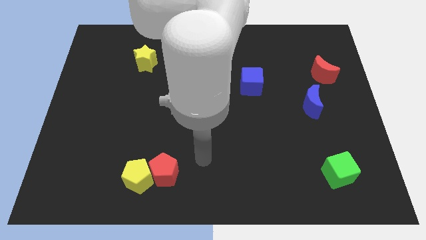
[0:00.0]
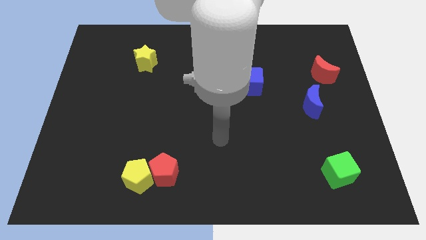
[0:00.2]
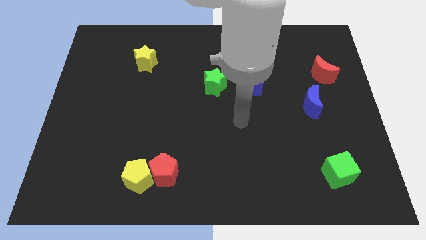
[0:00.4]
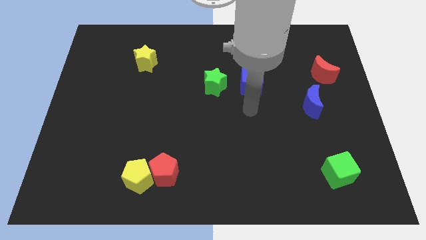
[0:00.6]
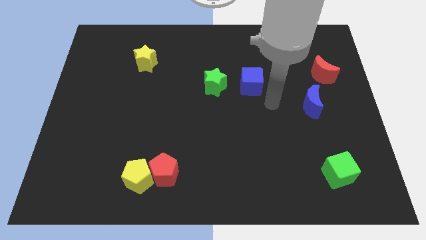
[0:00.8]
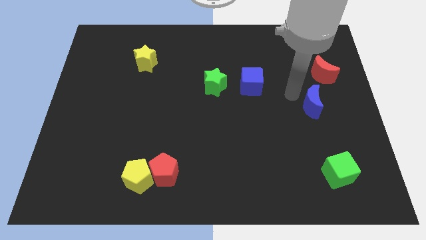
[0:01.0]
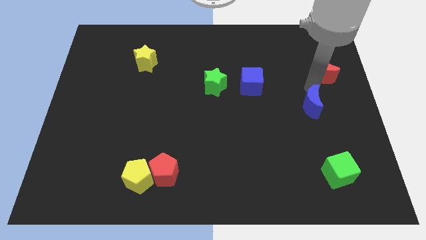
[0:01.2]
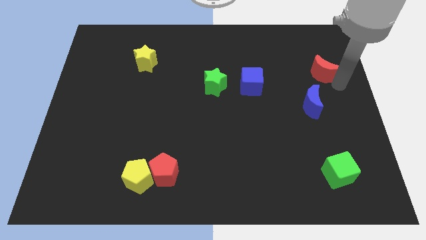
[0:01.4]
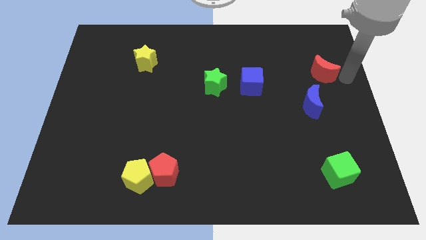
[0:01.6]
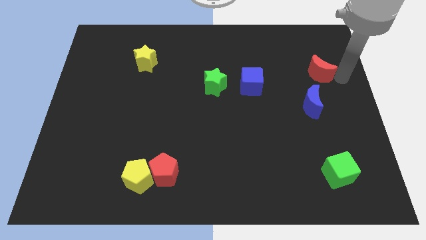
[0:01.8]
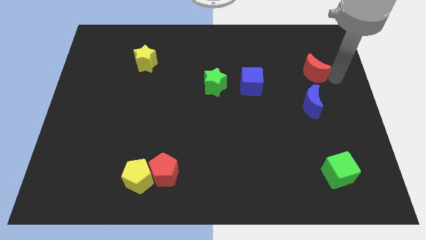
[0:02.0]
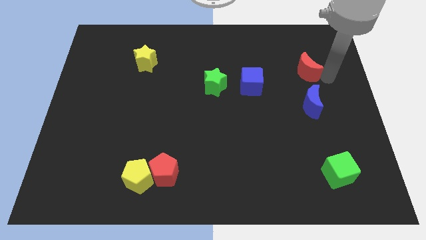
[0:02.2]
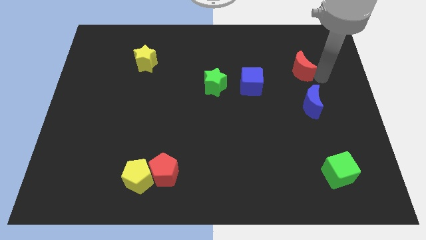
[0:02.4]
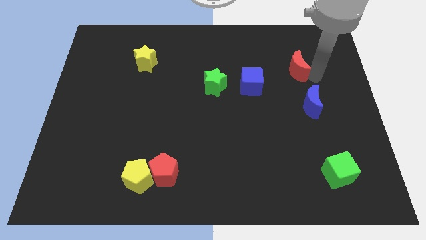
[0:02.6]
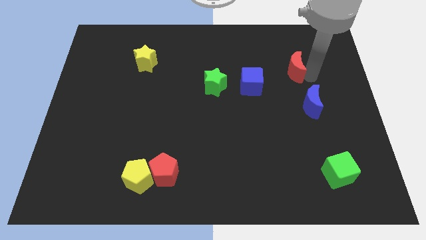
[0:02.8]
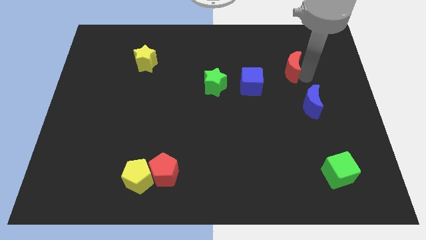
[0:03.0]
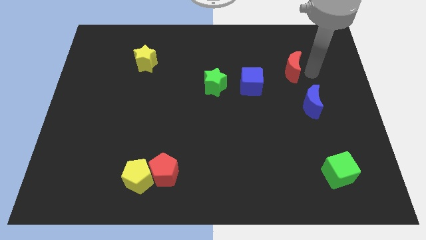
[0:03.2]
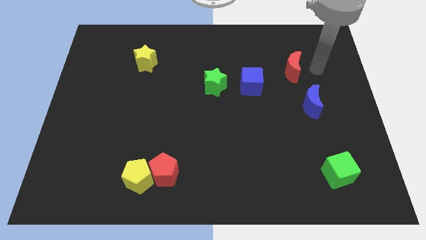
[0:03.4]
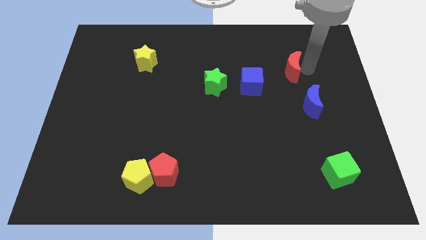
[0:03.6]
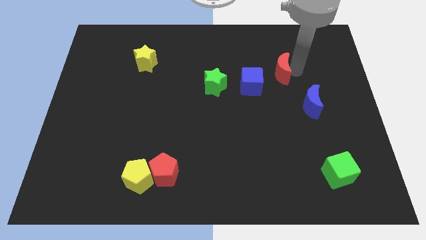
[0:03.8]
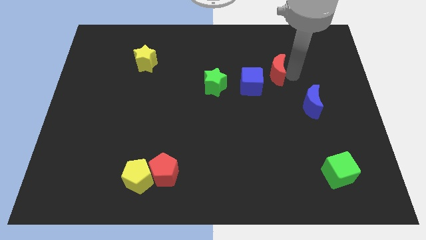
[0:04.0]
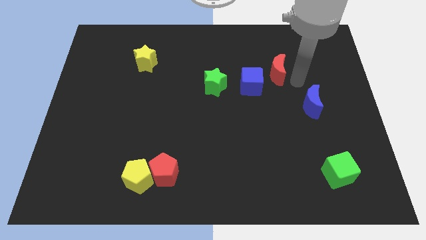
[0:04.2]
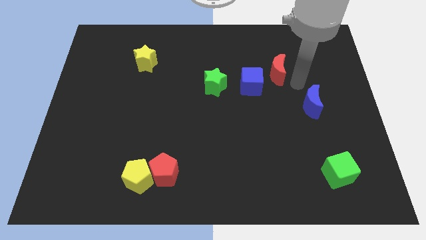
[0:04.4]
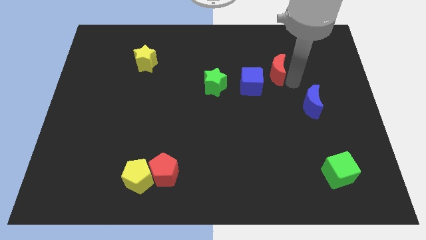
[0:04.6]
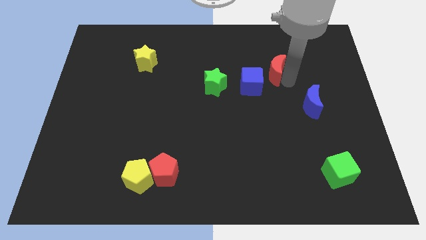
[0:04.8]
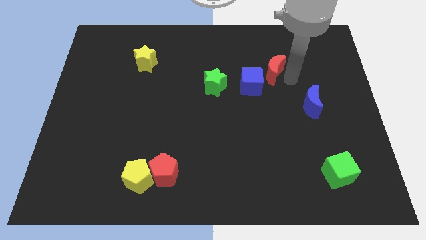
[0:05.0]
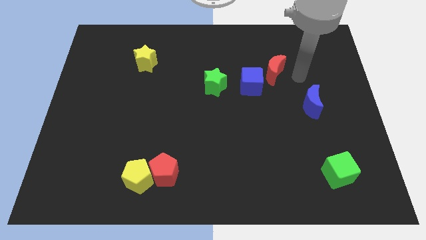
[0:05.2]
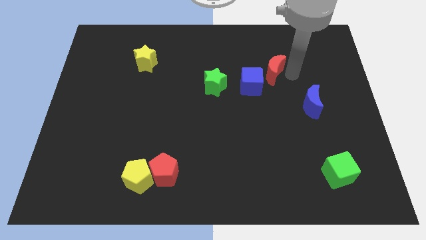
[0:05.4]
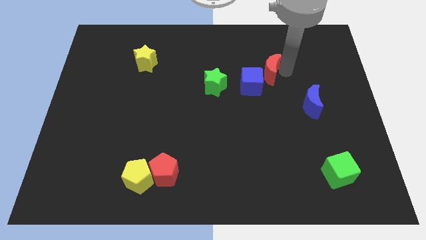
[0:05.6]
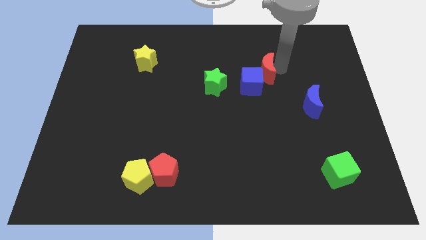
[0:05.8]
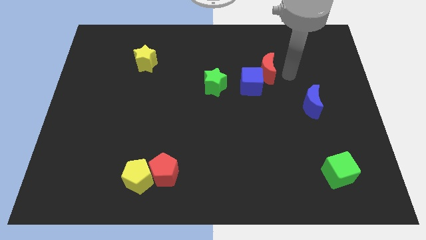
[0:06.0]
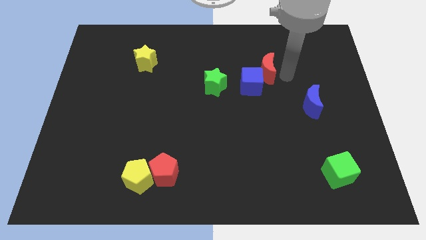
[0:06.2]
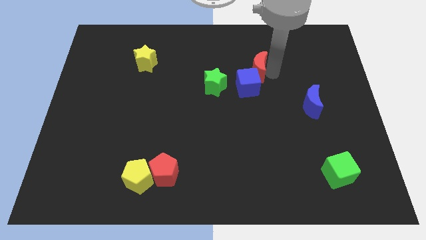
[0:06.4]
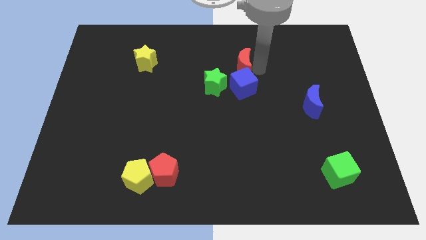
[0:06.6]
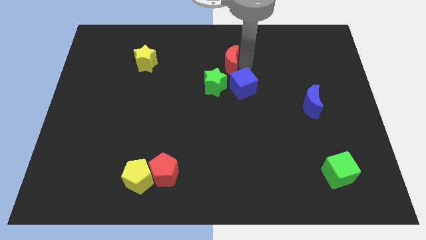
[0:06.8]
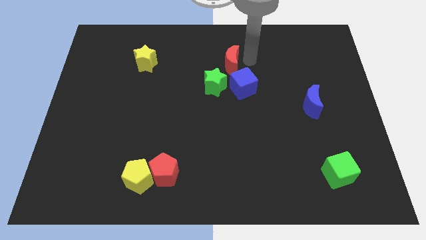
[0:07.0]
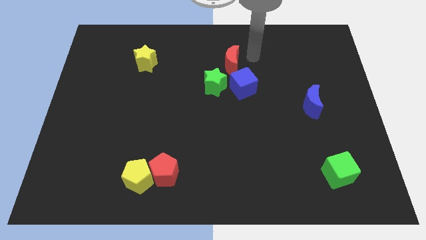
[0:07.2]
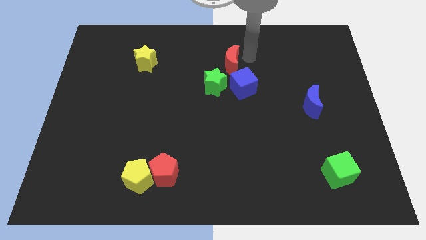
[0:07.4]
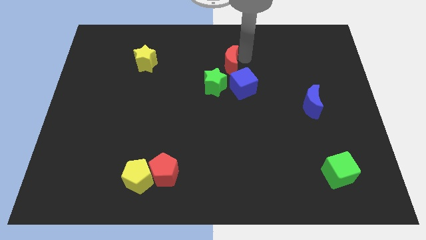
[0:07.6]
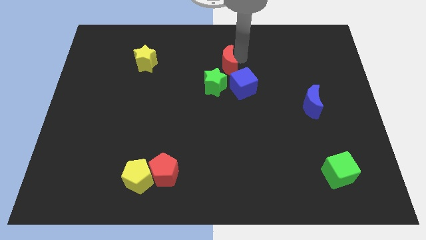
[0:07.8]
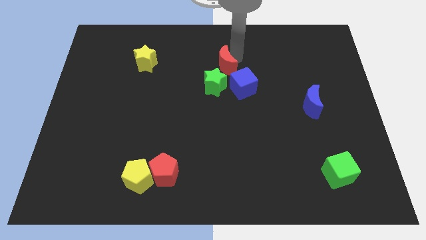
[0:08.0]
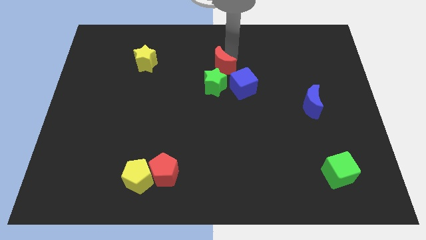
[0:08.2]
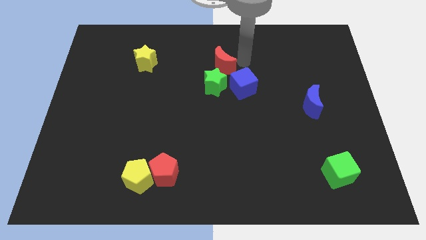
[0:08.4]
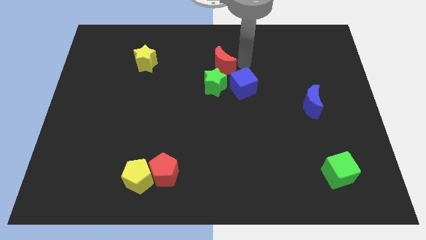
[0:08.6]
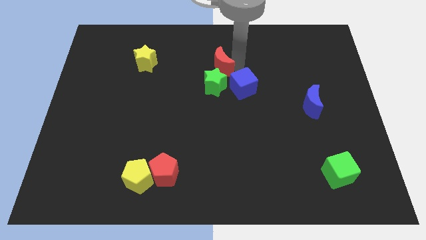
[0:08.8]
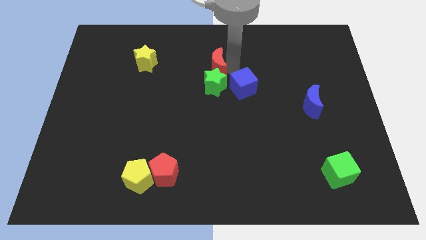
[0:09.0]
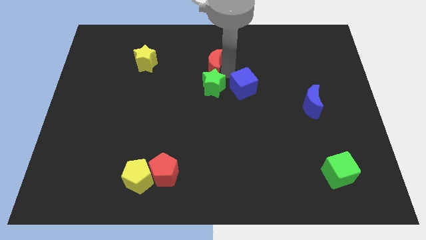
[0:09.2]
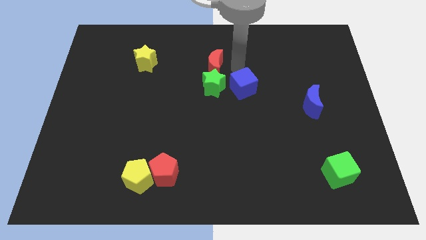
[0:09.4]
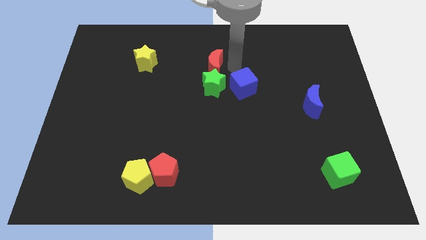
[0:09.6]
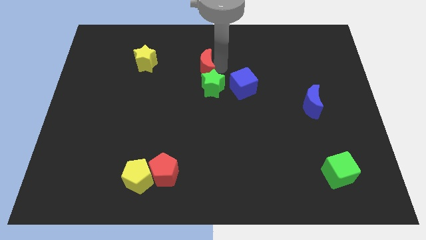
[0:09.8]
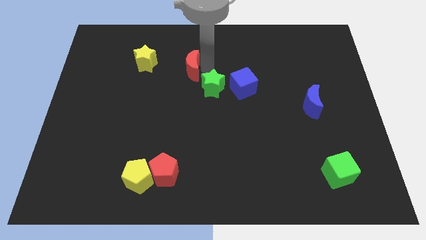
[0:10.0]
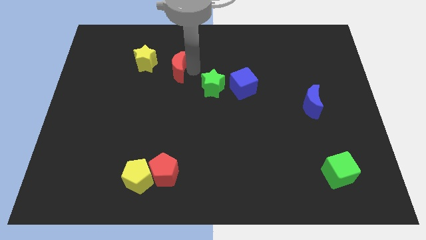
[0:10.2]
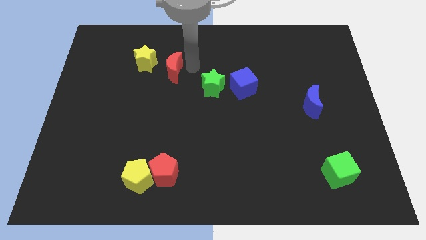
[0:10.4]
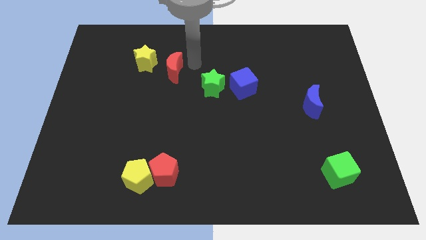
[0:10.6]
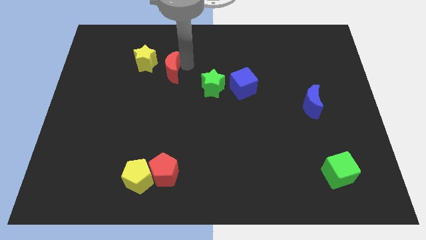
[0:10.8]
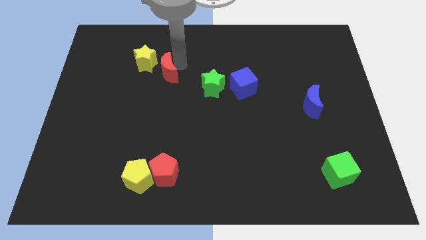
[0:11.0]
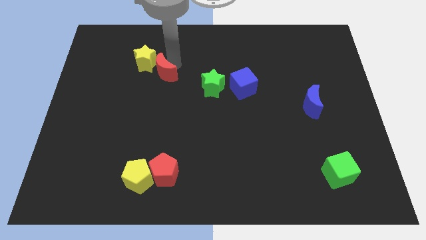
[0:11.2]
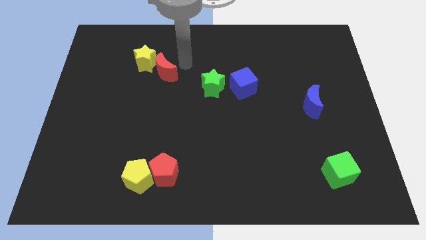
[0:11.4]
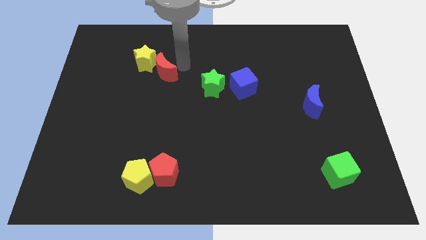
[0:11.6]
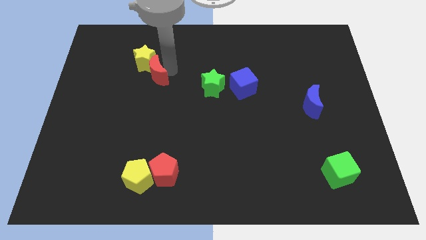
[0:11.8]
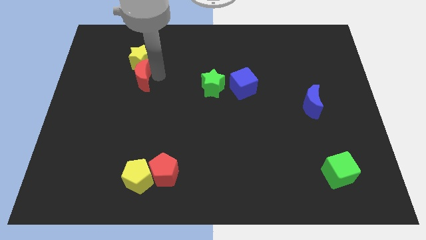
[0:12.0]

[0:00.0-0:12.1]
move the red moon diagonally down and to the left of the yellow star

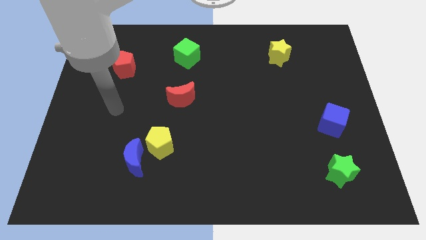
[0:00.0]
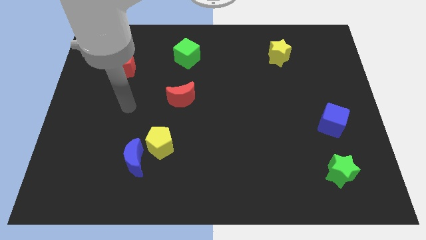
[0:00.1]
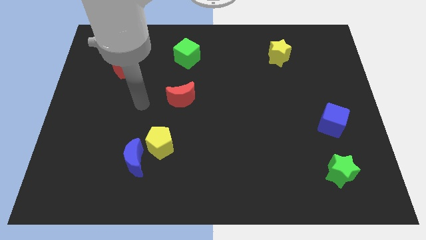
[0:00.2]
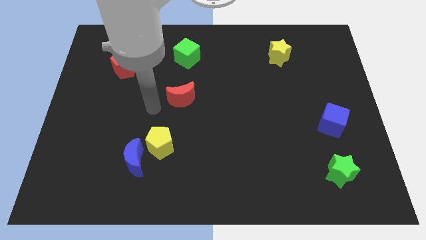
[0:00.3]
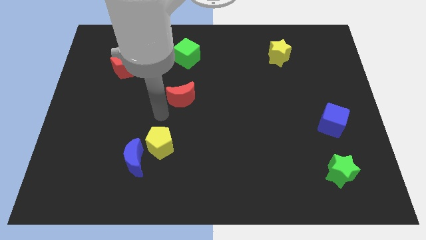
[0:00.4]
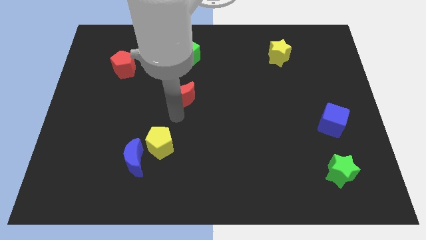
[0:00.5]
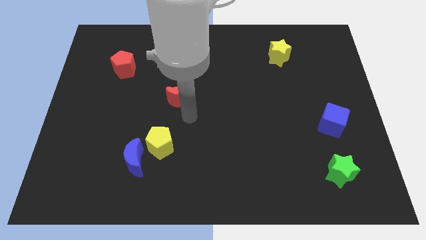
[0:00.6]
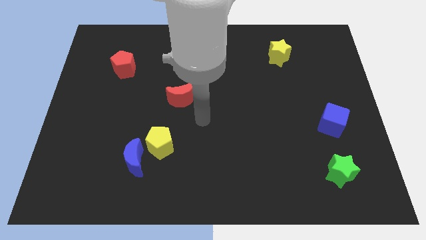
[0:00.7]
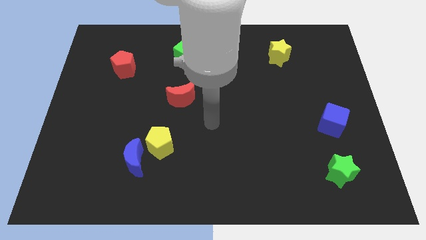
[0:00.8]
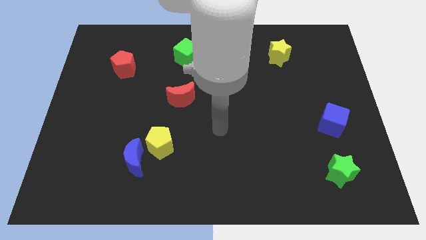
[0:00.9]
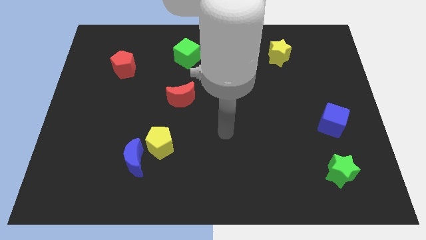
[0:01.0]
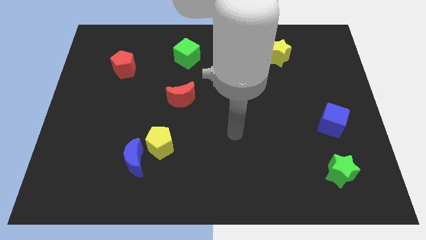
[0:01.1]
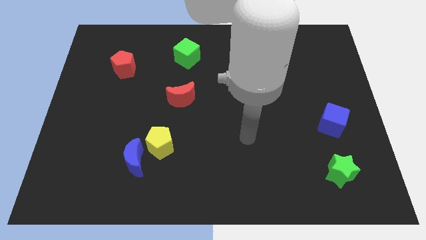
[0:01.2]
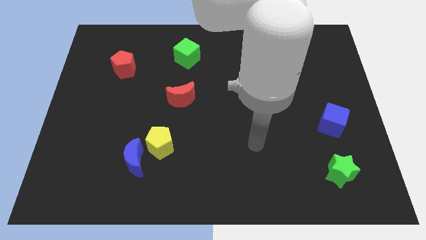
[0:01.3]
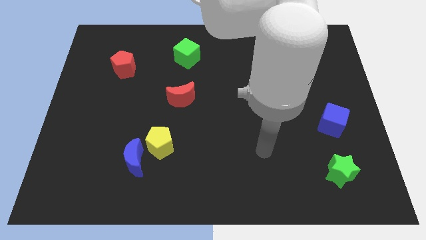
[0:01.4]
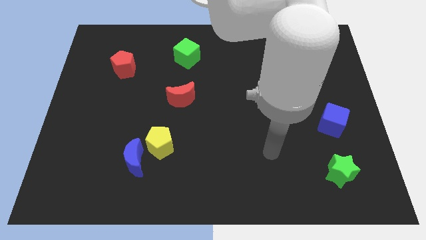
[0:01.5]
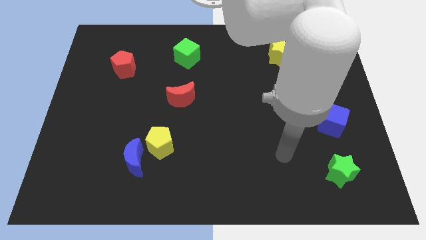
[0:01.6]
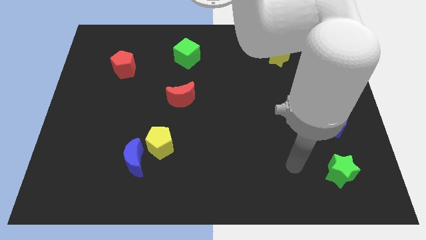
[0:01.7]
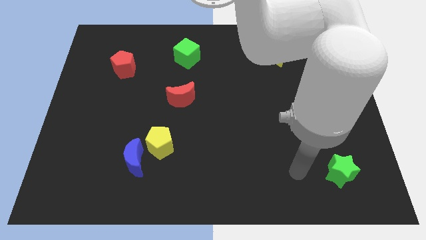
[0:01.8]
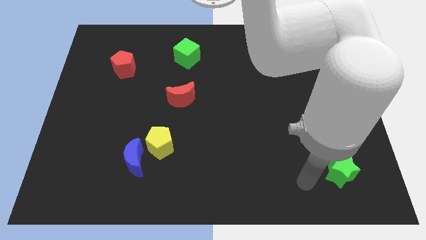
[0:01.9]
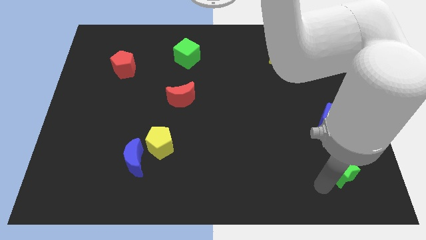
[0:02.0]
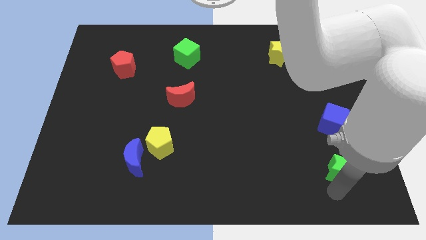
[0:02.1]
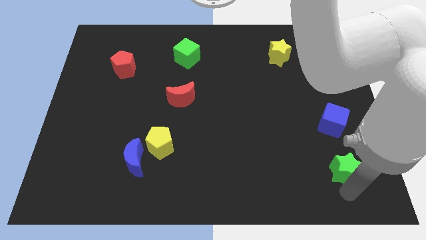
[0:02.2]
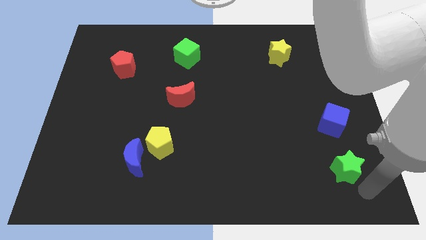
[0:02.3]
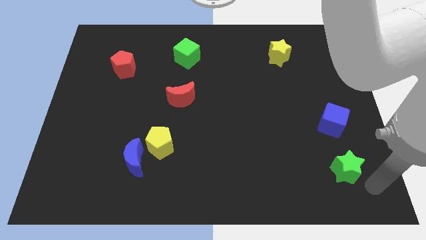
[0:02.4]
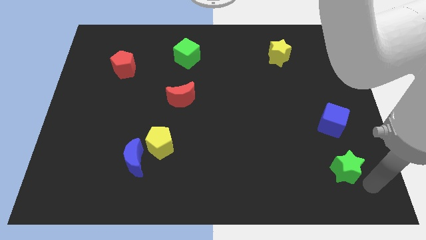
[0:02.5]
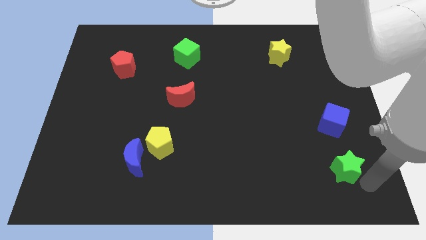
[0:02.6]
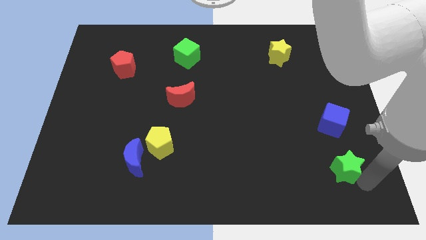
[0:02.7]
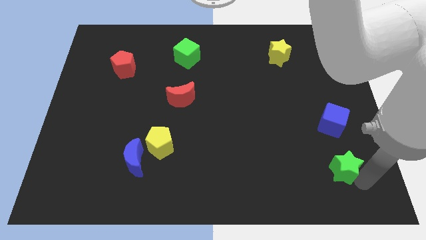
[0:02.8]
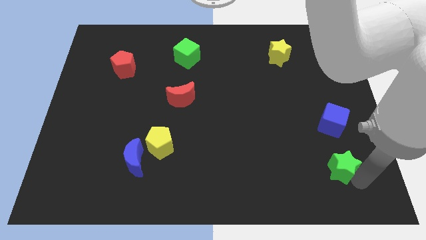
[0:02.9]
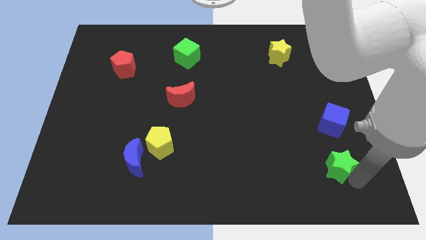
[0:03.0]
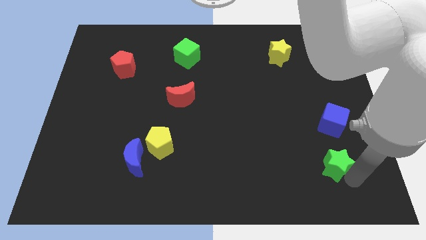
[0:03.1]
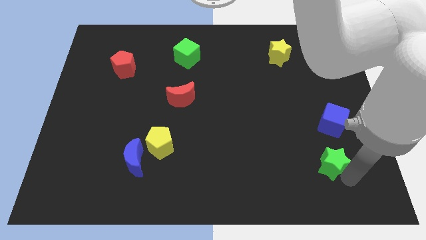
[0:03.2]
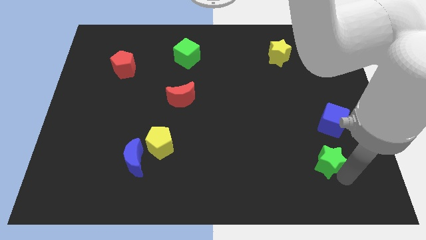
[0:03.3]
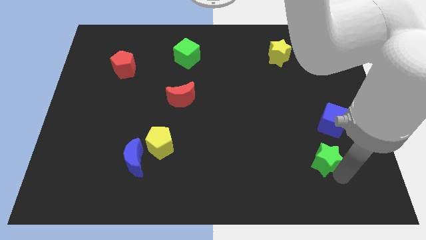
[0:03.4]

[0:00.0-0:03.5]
move the green star diagonally down and to the left of the blue cube
